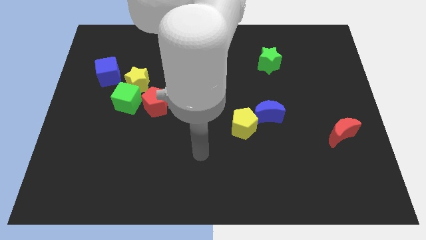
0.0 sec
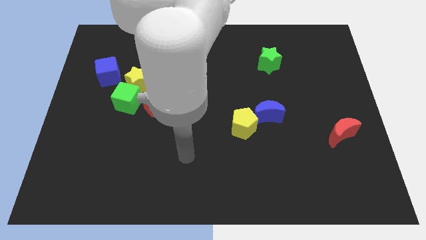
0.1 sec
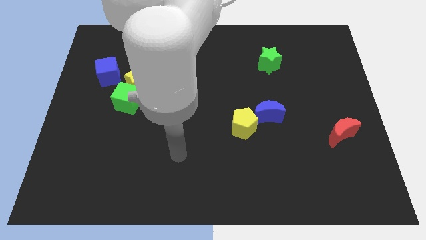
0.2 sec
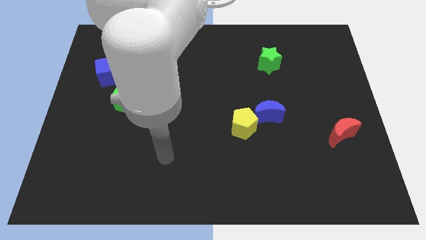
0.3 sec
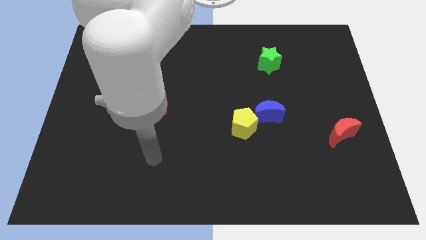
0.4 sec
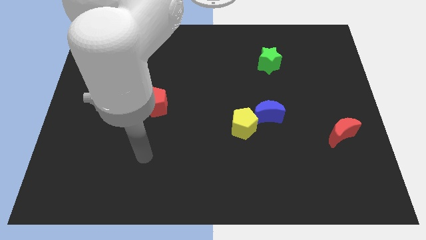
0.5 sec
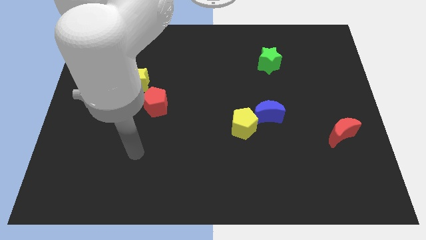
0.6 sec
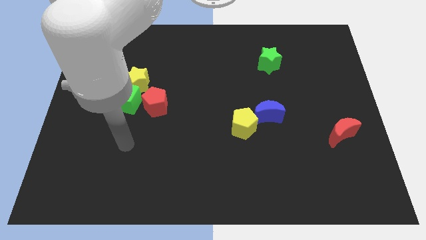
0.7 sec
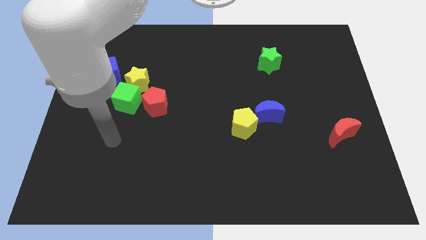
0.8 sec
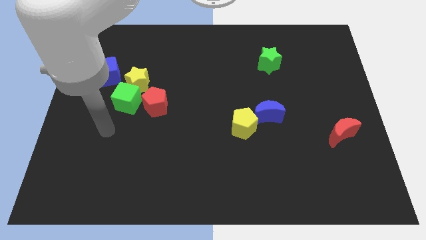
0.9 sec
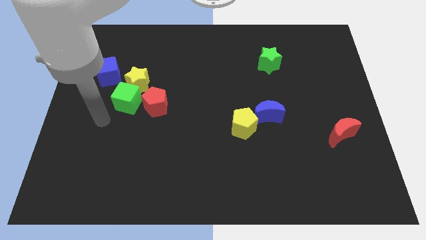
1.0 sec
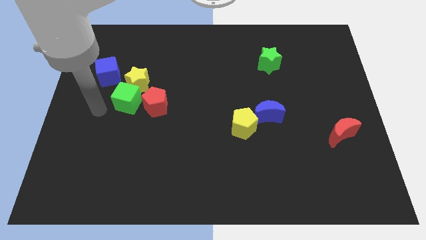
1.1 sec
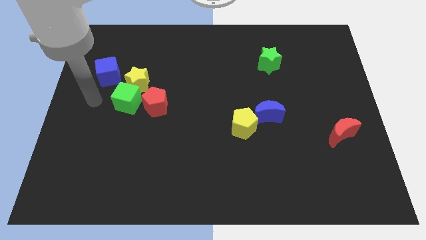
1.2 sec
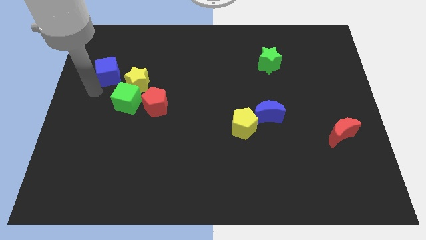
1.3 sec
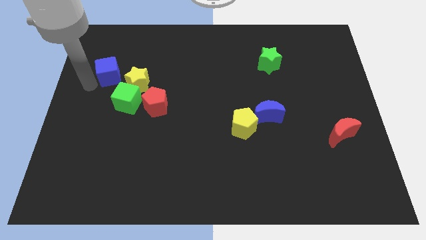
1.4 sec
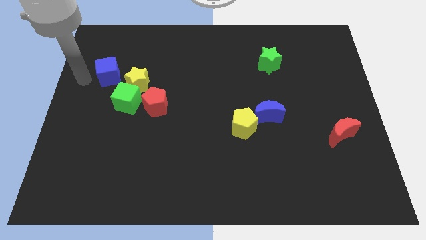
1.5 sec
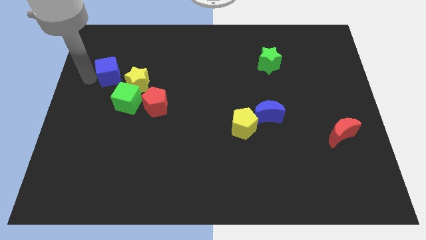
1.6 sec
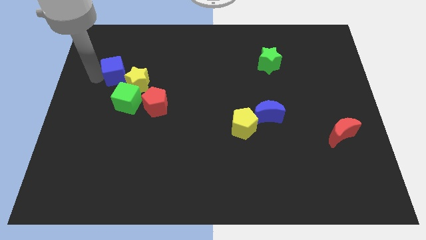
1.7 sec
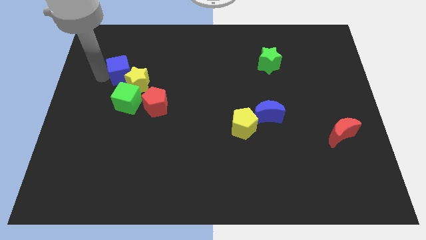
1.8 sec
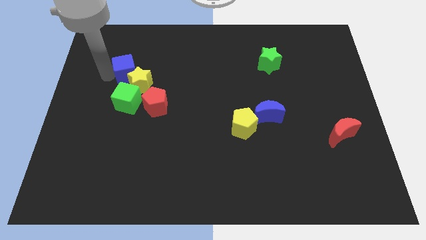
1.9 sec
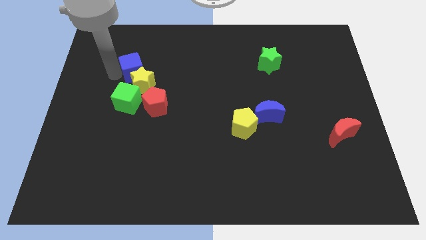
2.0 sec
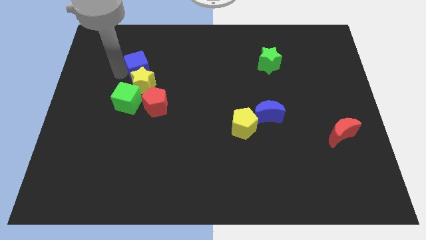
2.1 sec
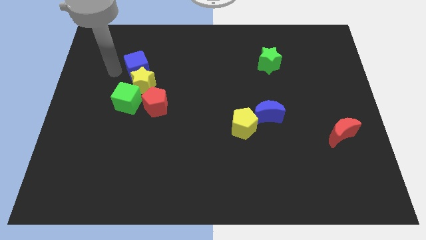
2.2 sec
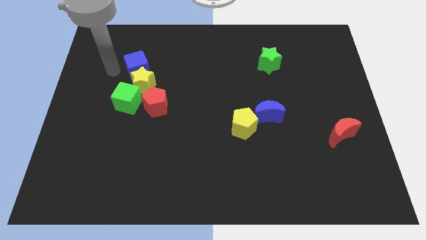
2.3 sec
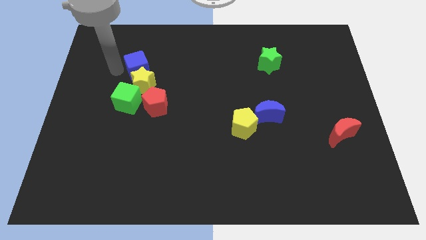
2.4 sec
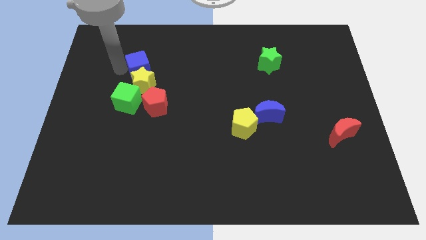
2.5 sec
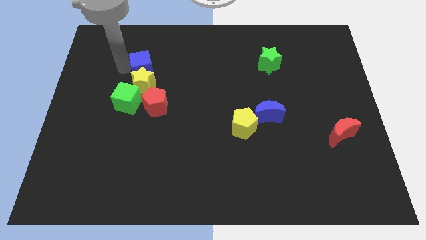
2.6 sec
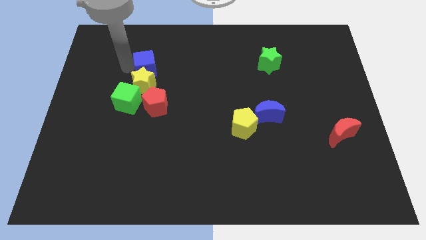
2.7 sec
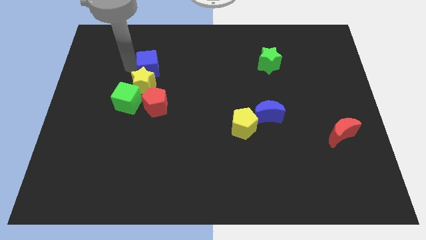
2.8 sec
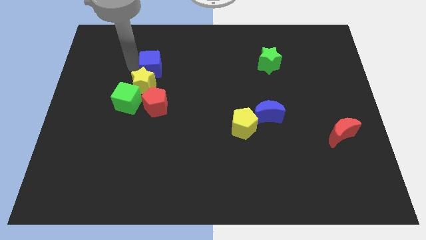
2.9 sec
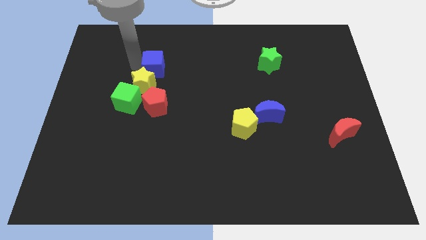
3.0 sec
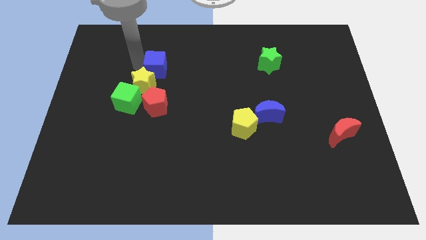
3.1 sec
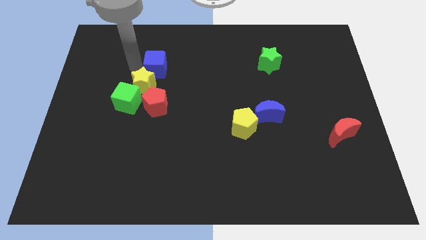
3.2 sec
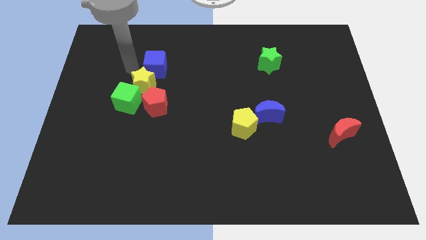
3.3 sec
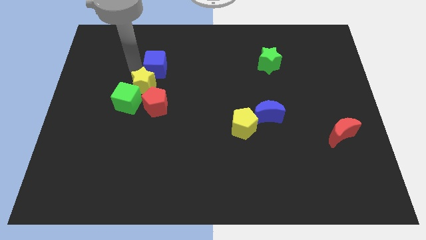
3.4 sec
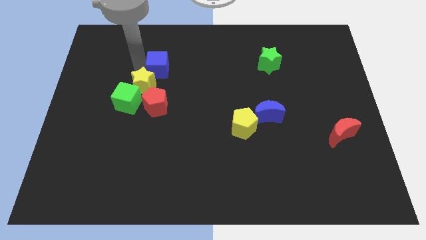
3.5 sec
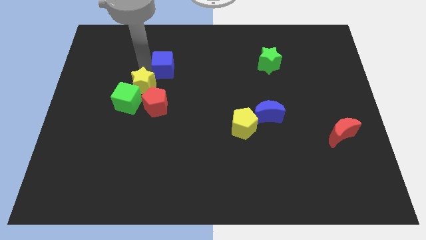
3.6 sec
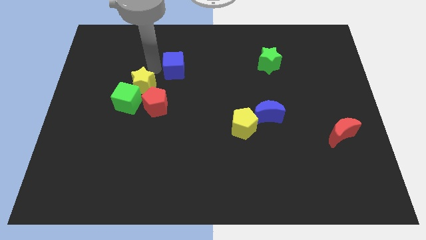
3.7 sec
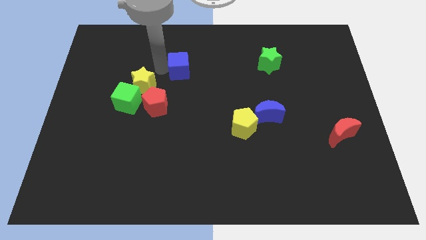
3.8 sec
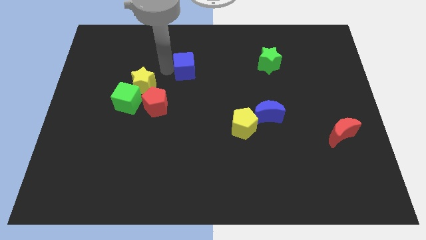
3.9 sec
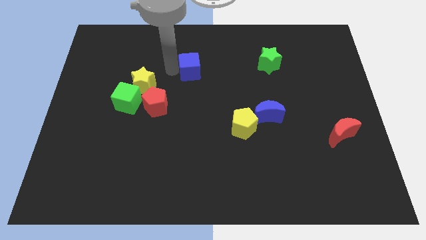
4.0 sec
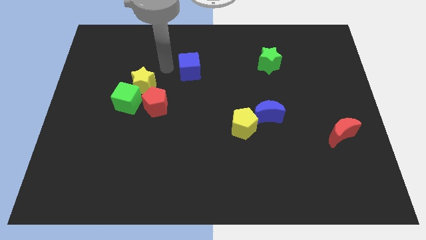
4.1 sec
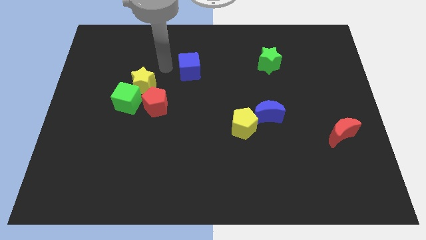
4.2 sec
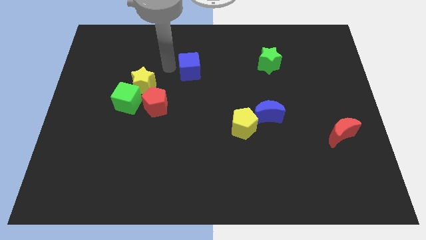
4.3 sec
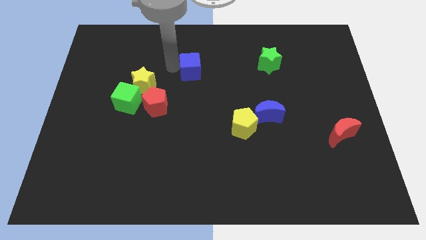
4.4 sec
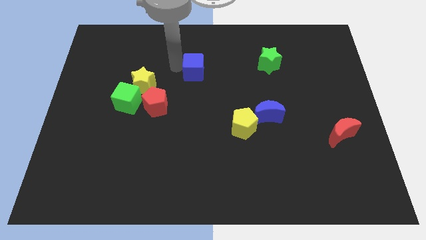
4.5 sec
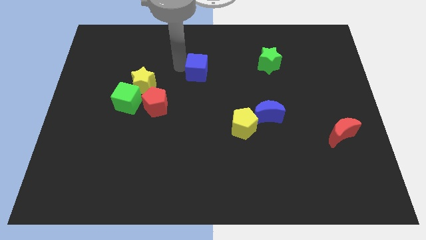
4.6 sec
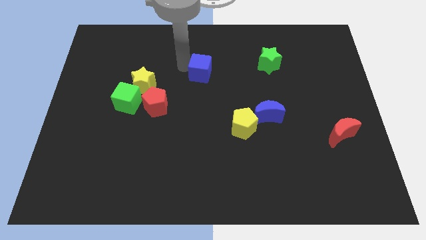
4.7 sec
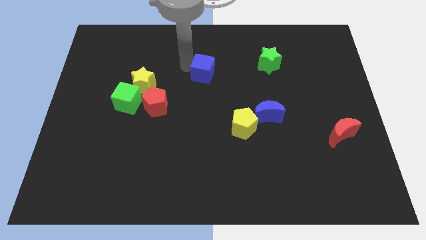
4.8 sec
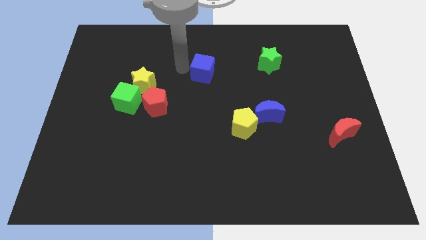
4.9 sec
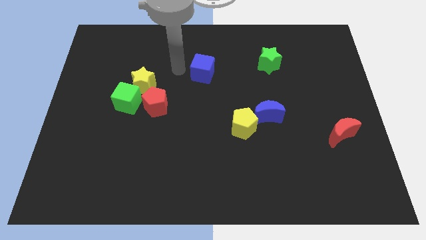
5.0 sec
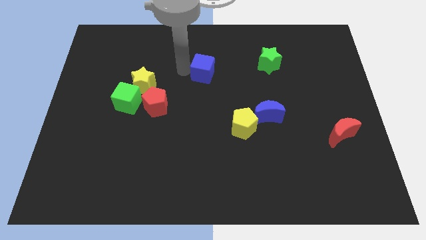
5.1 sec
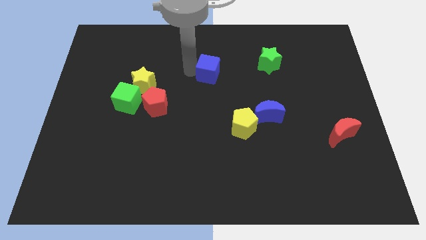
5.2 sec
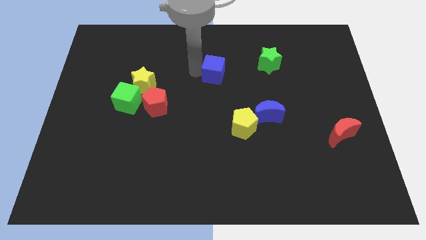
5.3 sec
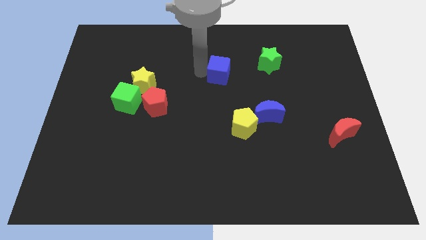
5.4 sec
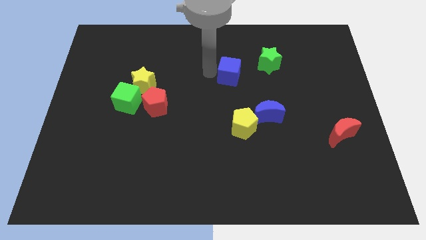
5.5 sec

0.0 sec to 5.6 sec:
move the blue cube diagonally down and to the left of the green star

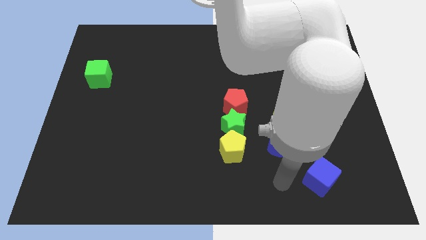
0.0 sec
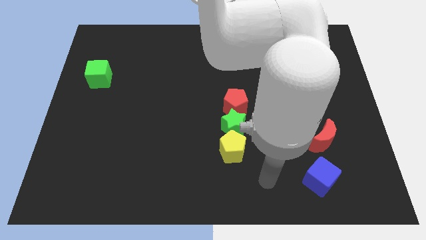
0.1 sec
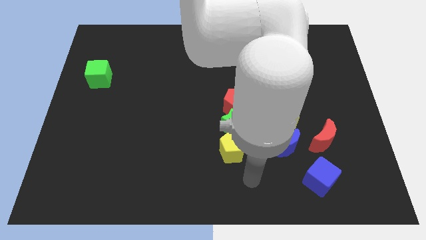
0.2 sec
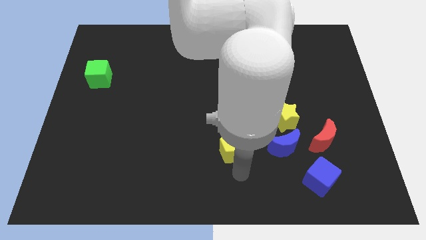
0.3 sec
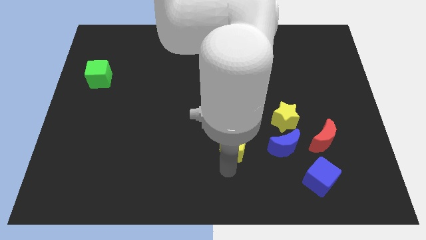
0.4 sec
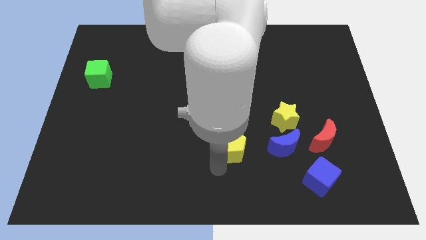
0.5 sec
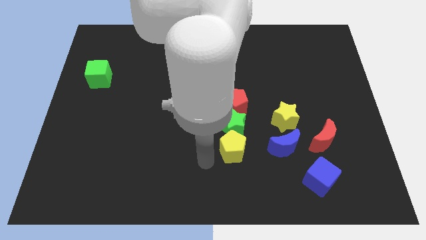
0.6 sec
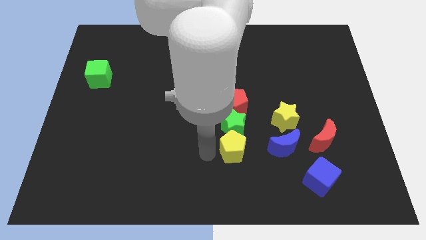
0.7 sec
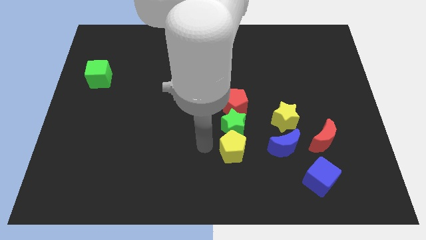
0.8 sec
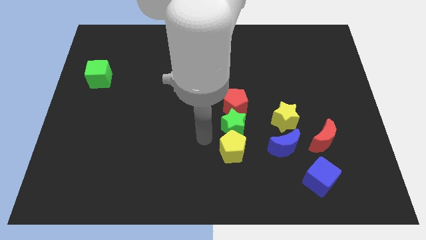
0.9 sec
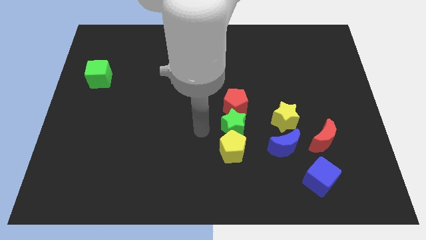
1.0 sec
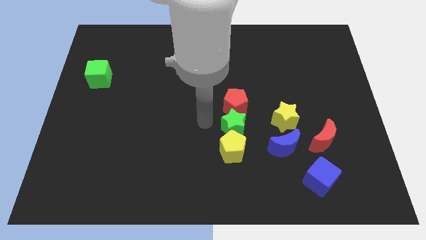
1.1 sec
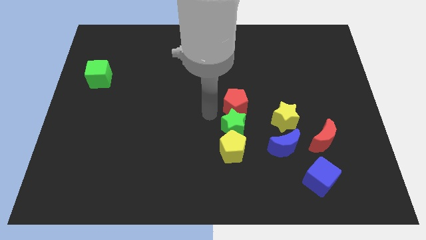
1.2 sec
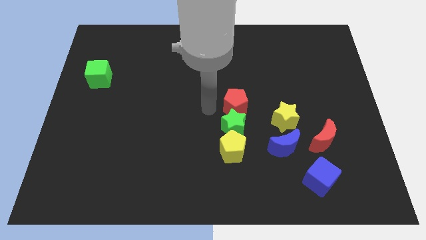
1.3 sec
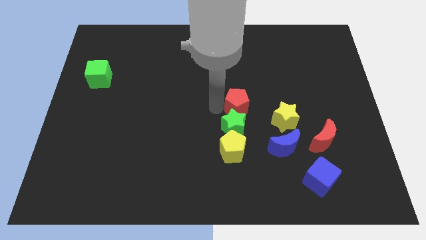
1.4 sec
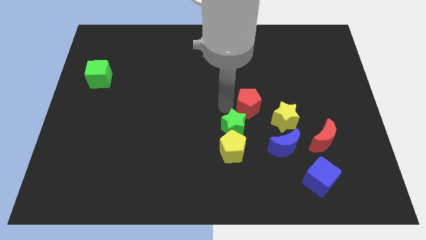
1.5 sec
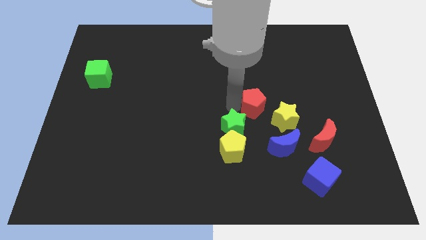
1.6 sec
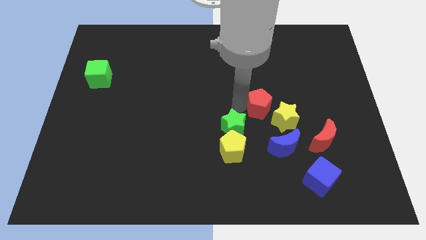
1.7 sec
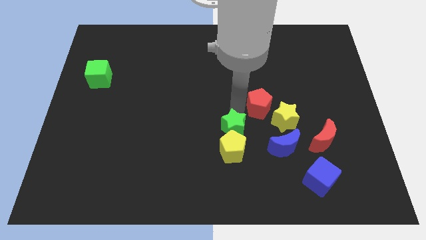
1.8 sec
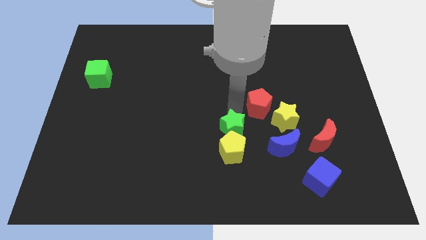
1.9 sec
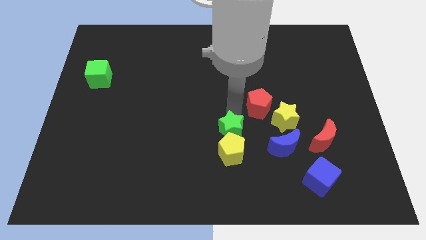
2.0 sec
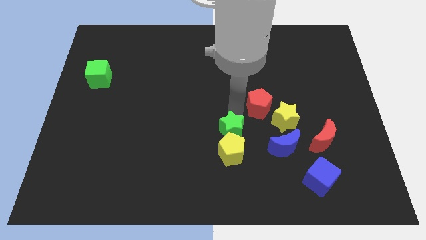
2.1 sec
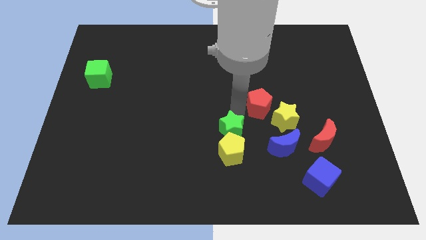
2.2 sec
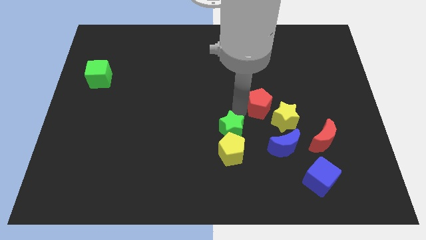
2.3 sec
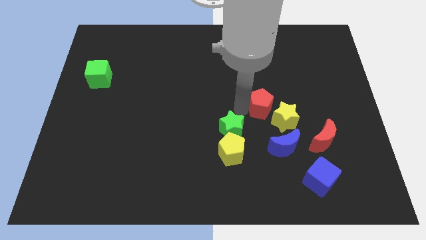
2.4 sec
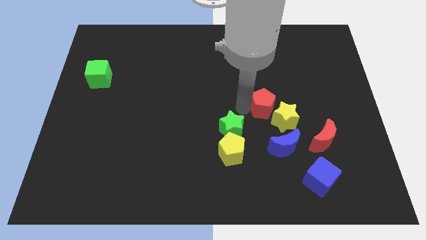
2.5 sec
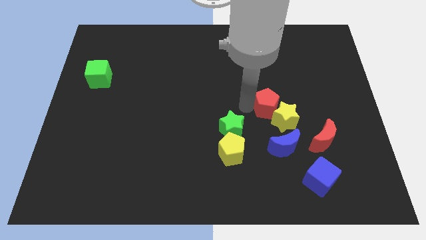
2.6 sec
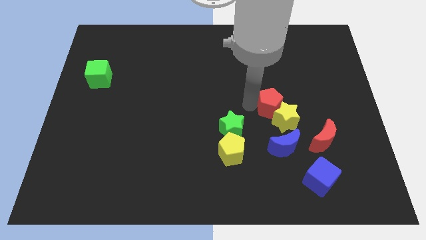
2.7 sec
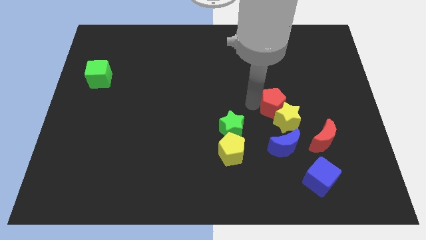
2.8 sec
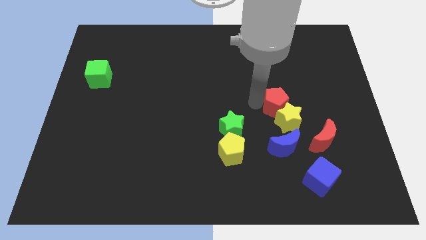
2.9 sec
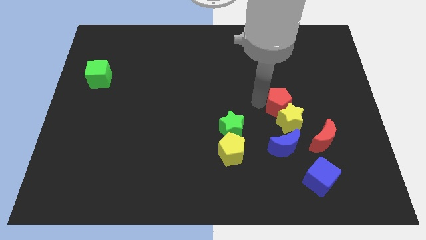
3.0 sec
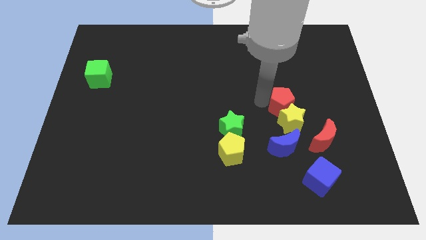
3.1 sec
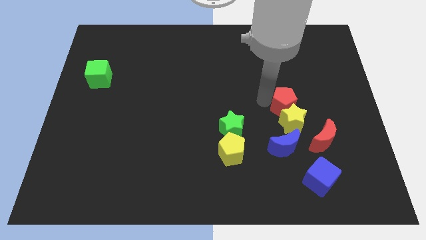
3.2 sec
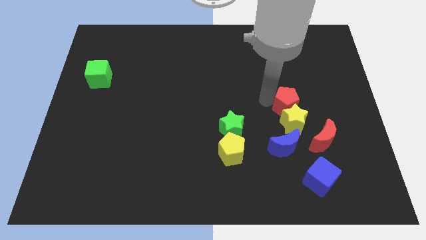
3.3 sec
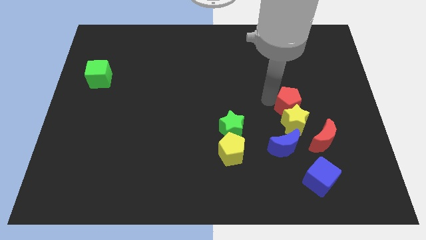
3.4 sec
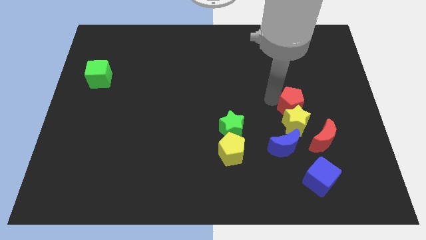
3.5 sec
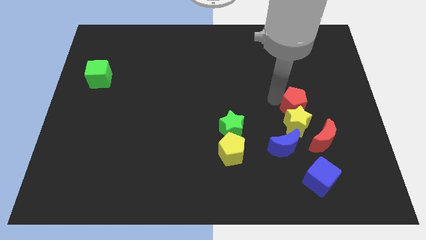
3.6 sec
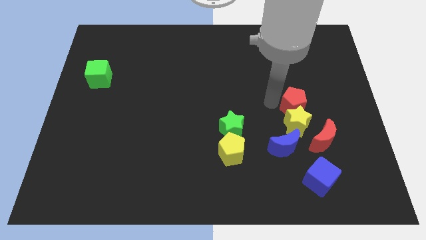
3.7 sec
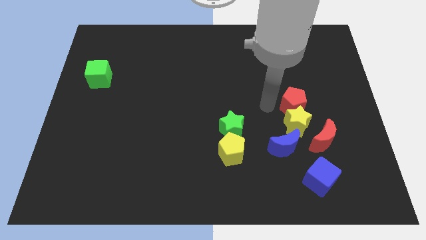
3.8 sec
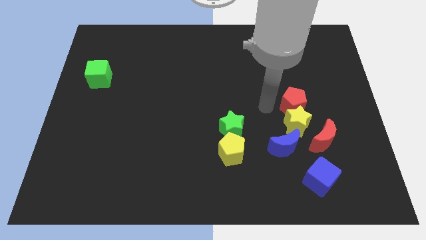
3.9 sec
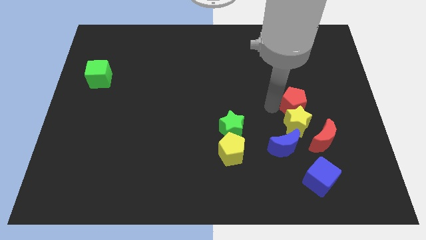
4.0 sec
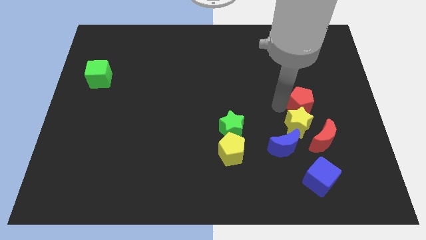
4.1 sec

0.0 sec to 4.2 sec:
put the red pentagon to the top of the red moon
